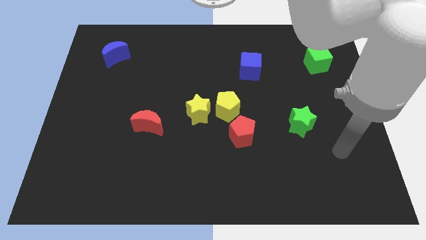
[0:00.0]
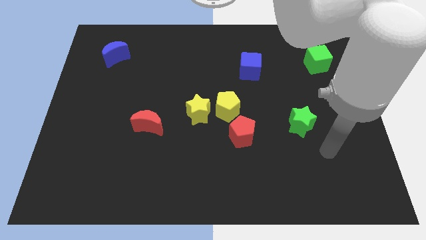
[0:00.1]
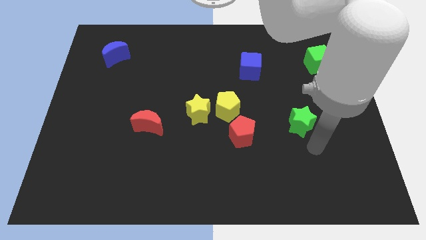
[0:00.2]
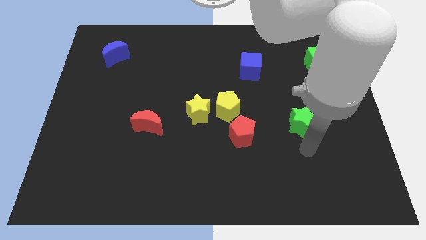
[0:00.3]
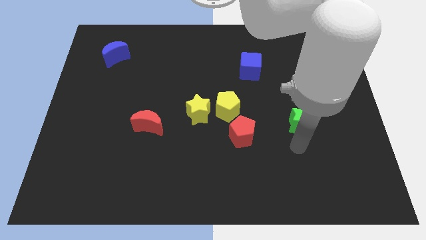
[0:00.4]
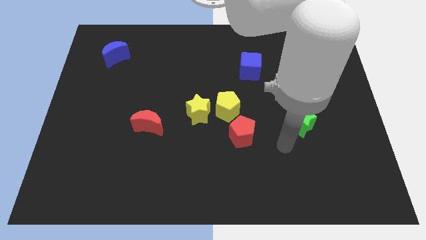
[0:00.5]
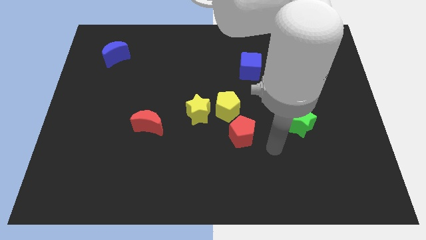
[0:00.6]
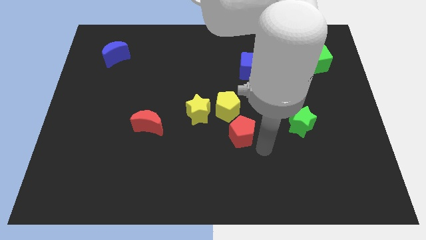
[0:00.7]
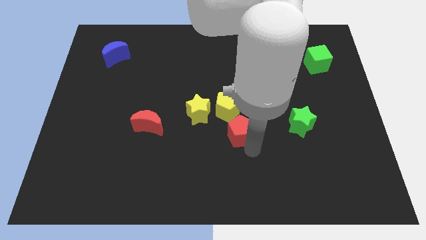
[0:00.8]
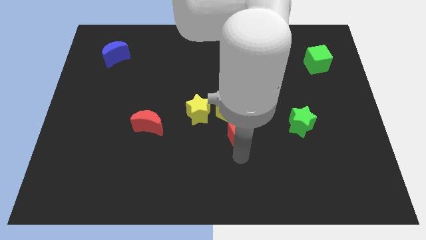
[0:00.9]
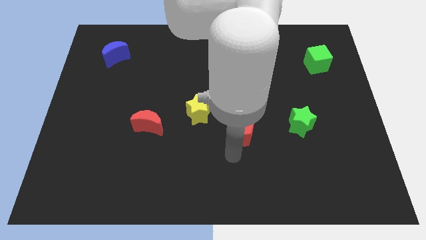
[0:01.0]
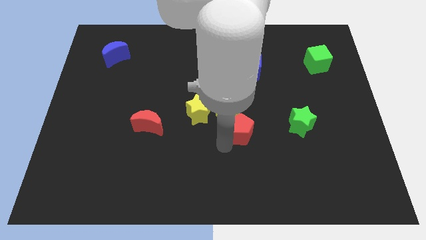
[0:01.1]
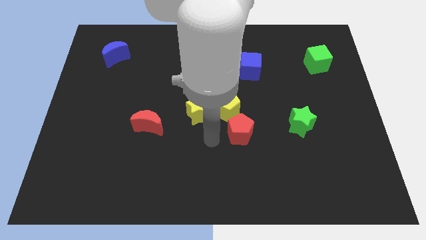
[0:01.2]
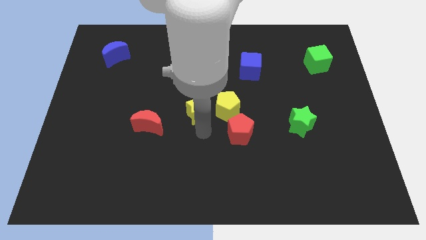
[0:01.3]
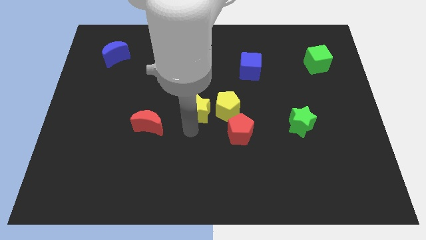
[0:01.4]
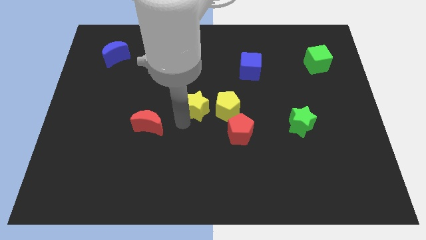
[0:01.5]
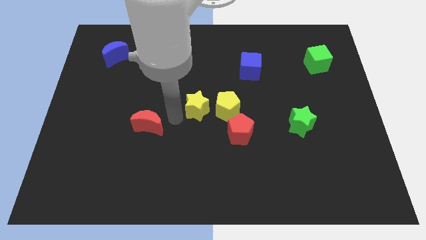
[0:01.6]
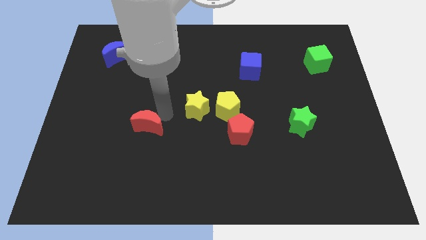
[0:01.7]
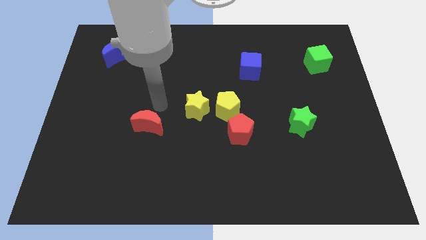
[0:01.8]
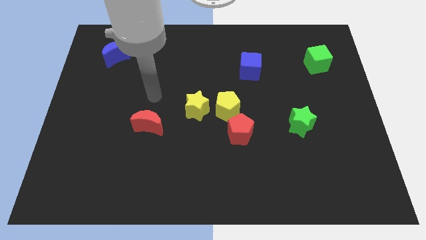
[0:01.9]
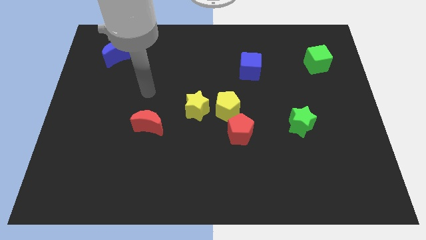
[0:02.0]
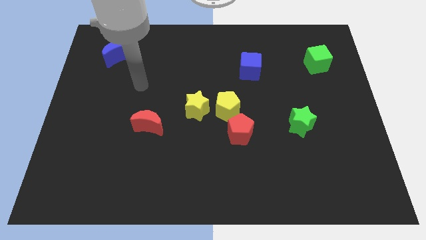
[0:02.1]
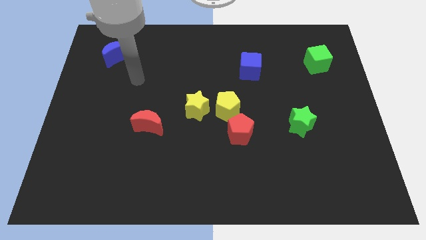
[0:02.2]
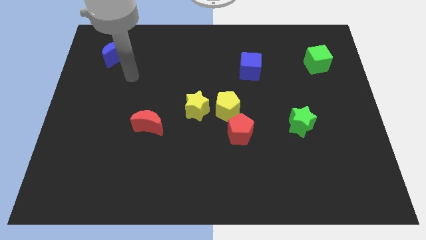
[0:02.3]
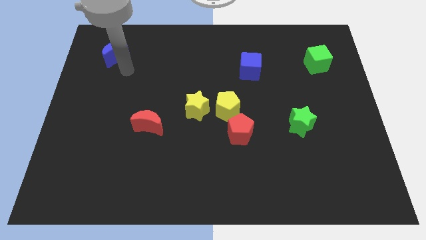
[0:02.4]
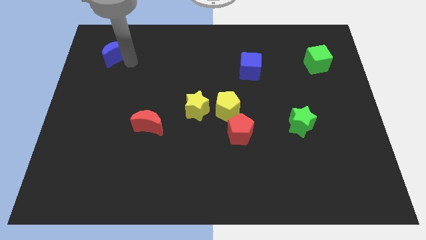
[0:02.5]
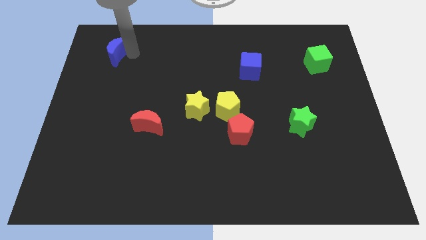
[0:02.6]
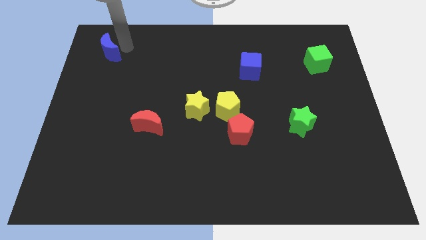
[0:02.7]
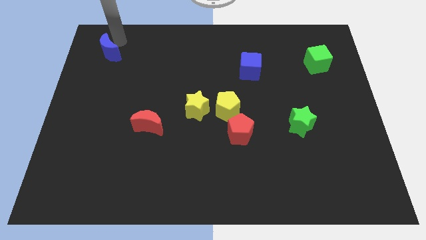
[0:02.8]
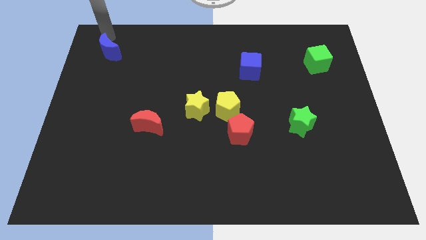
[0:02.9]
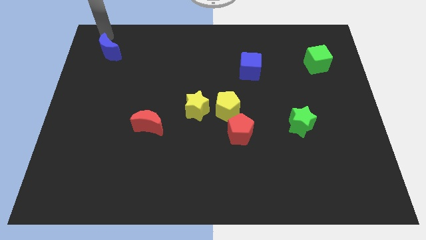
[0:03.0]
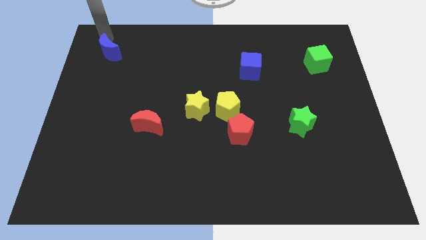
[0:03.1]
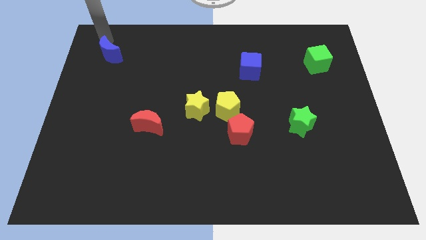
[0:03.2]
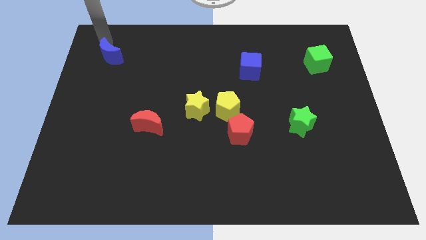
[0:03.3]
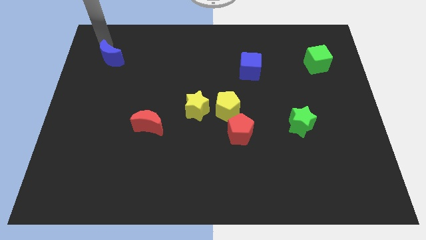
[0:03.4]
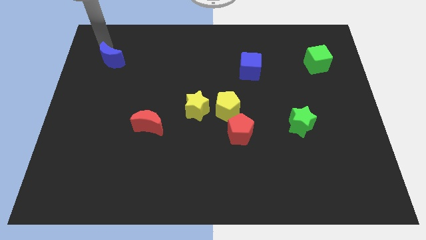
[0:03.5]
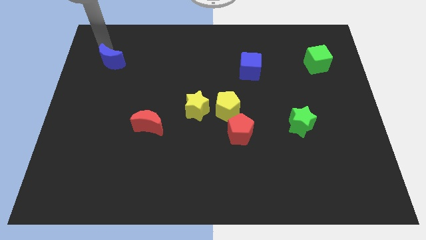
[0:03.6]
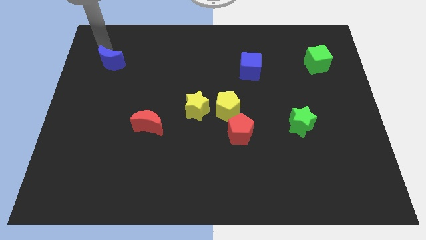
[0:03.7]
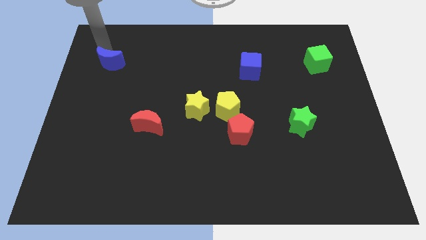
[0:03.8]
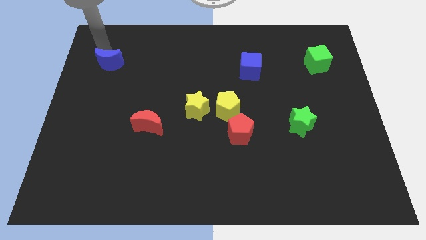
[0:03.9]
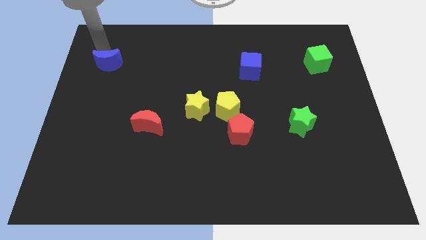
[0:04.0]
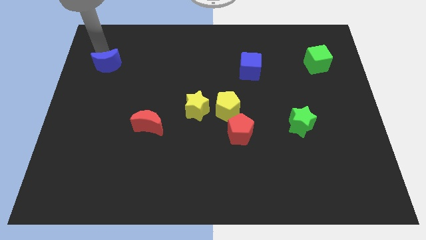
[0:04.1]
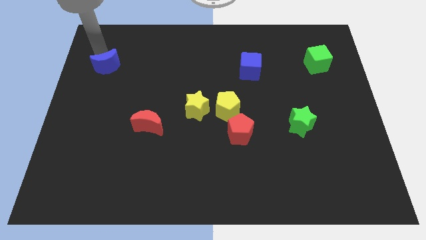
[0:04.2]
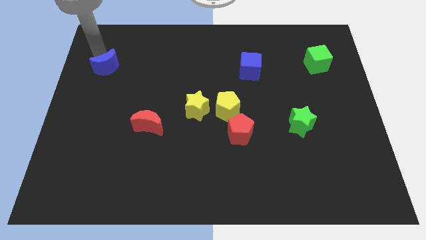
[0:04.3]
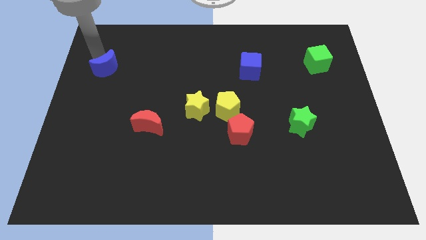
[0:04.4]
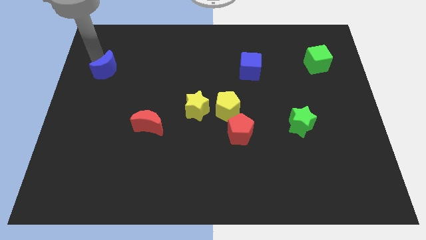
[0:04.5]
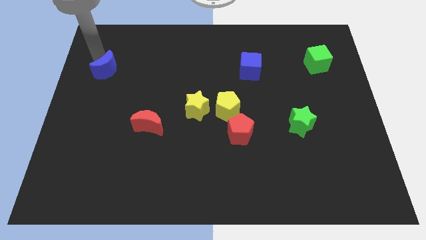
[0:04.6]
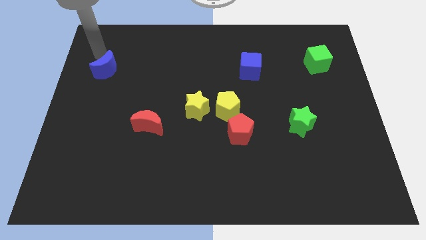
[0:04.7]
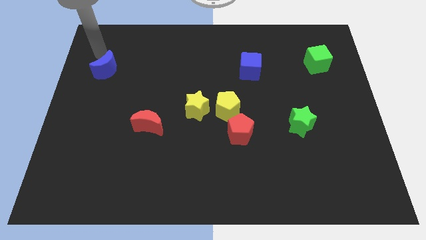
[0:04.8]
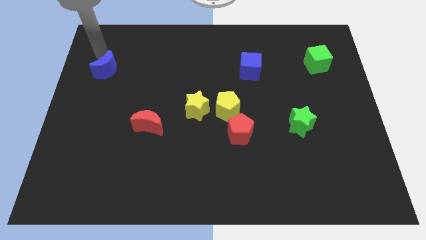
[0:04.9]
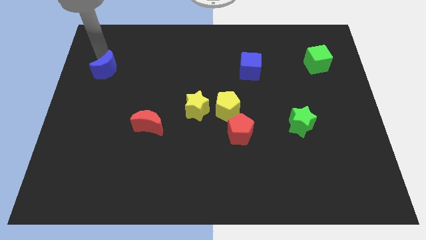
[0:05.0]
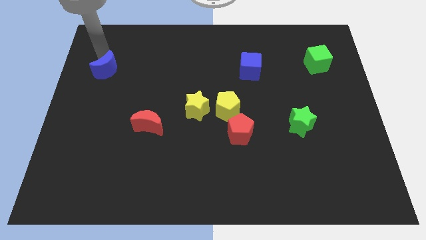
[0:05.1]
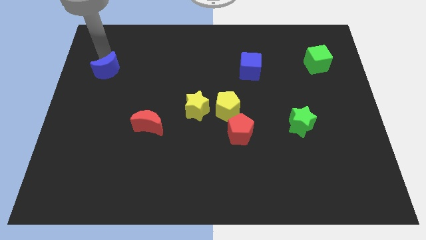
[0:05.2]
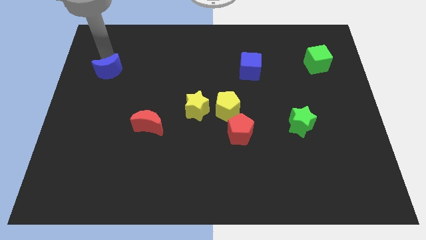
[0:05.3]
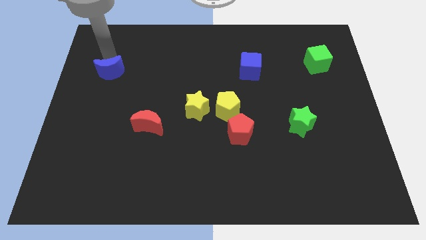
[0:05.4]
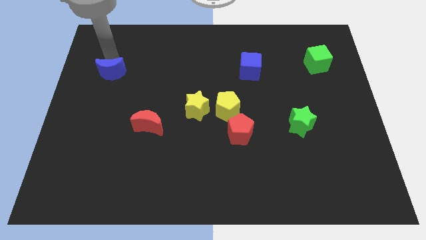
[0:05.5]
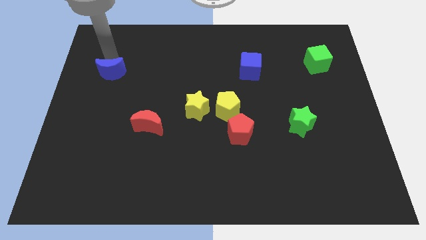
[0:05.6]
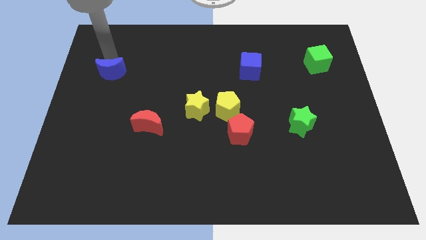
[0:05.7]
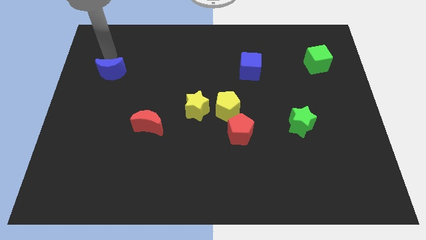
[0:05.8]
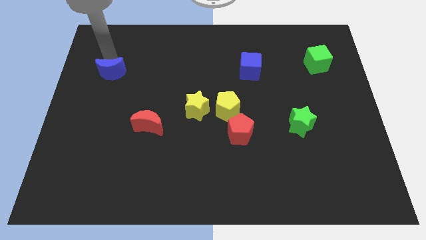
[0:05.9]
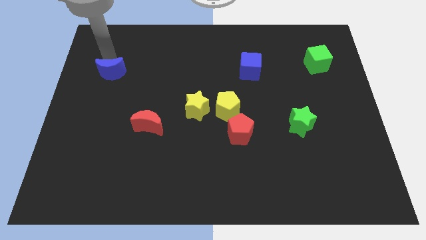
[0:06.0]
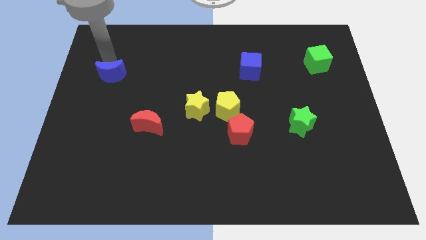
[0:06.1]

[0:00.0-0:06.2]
slightly push the blue moon down

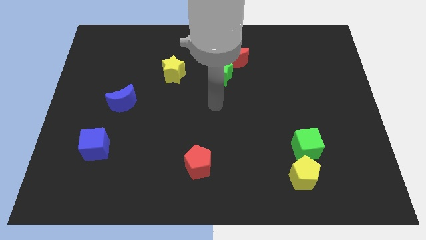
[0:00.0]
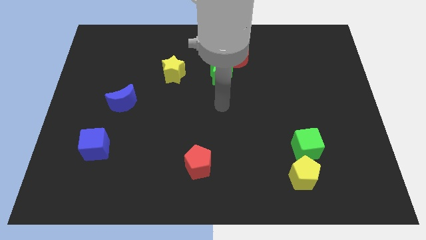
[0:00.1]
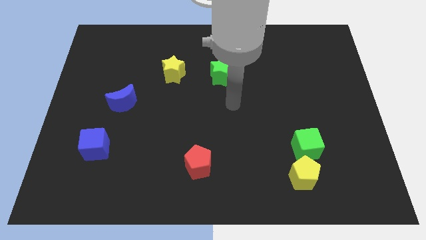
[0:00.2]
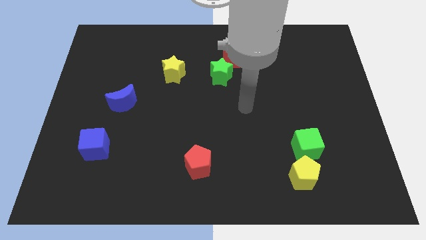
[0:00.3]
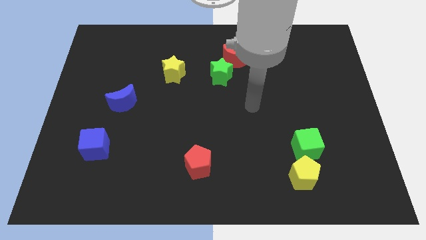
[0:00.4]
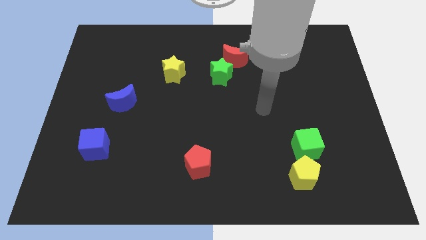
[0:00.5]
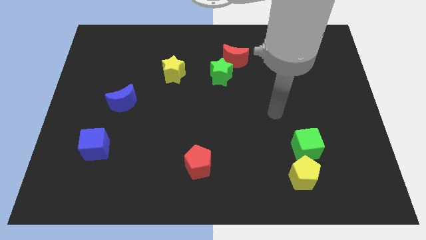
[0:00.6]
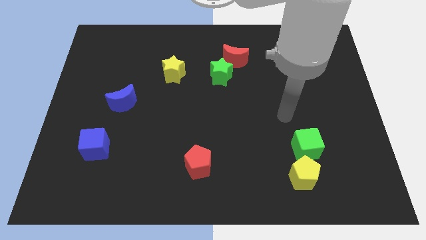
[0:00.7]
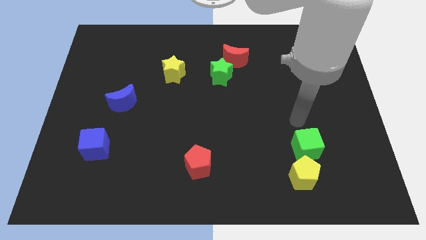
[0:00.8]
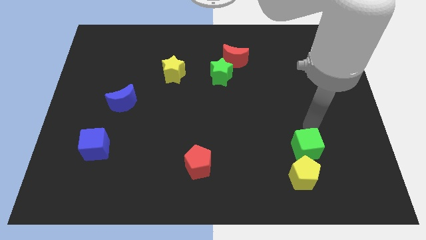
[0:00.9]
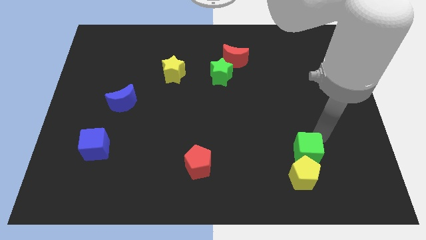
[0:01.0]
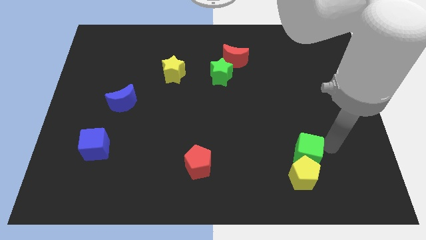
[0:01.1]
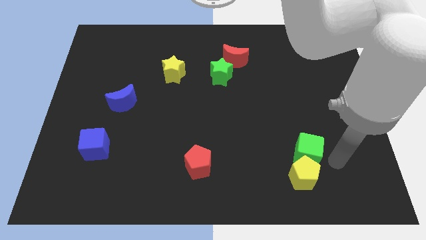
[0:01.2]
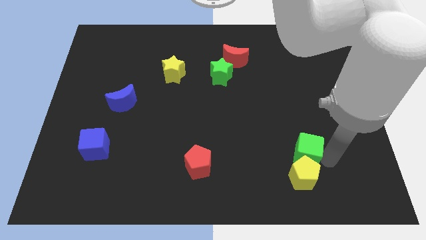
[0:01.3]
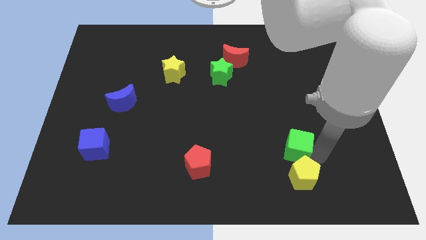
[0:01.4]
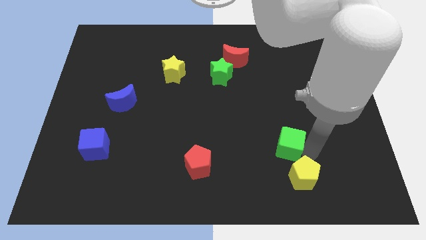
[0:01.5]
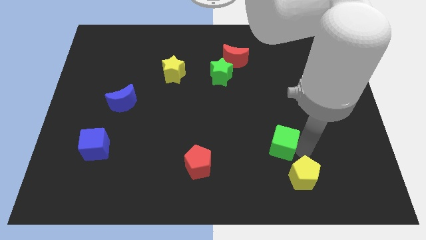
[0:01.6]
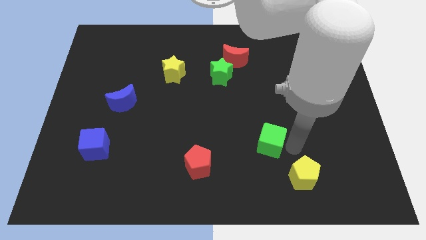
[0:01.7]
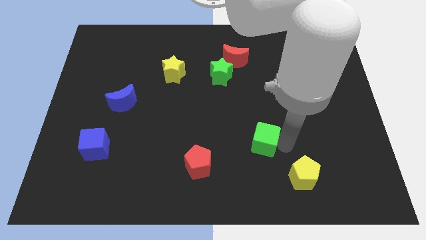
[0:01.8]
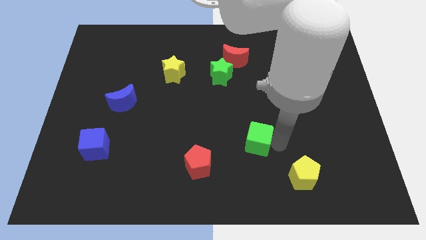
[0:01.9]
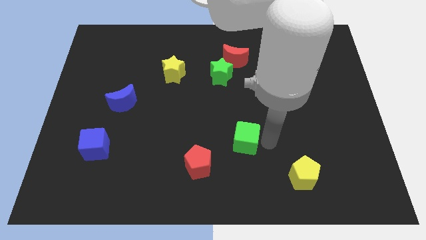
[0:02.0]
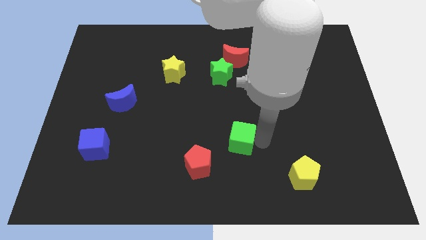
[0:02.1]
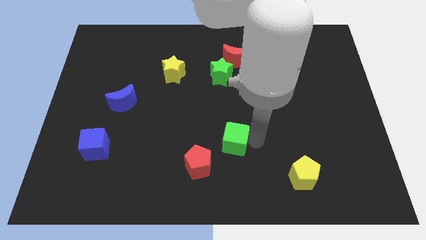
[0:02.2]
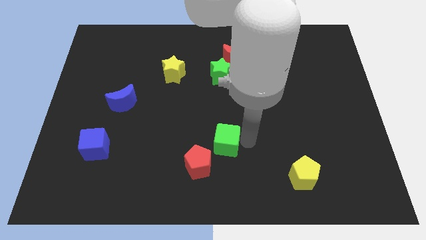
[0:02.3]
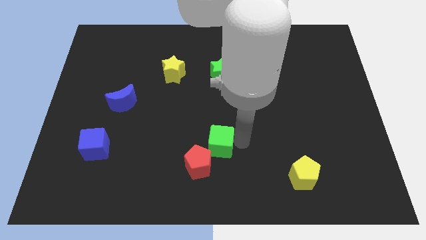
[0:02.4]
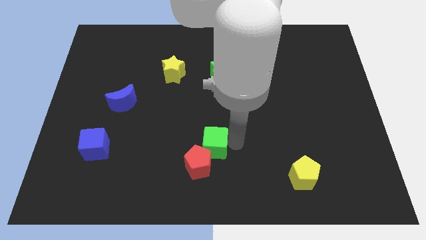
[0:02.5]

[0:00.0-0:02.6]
move the green cube to the left
